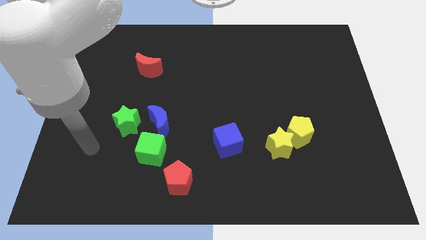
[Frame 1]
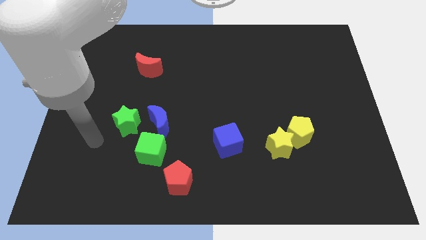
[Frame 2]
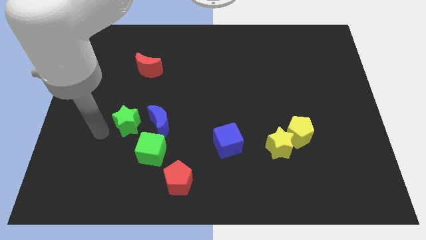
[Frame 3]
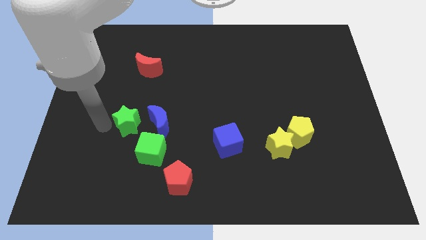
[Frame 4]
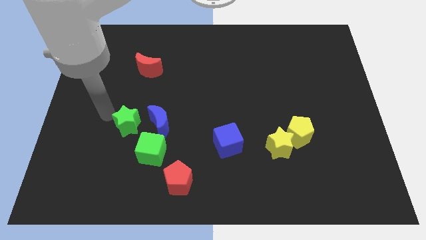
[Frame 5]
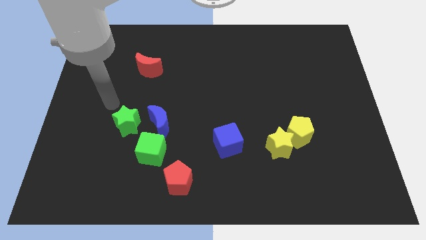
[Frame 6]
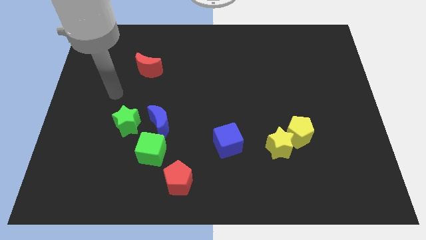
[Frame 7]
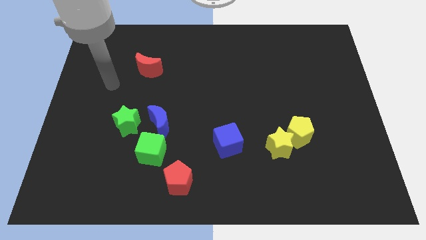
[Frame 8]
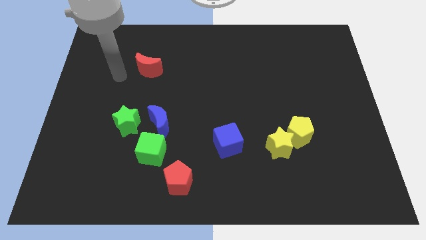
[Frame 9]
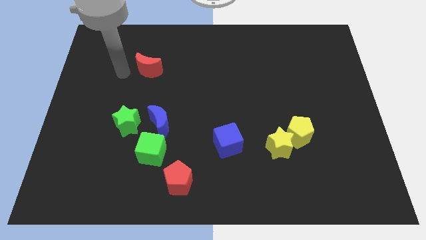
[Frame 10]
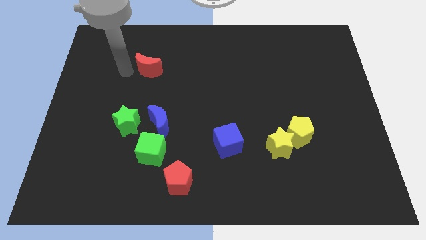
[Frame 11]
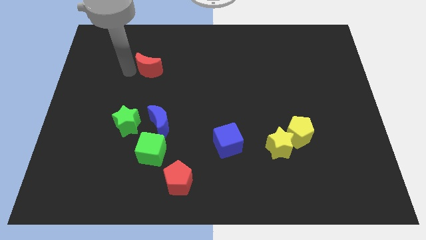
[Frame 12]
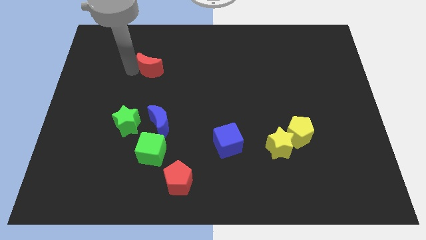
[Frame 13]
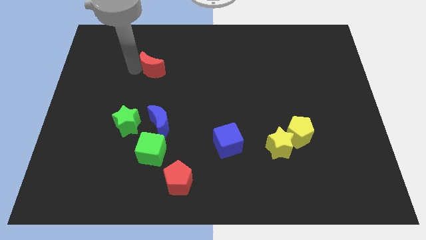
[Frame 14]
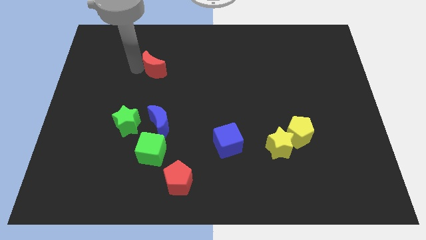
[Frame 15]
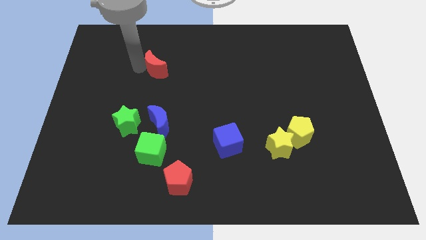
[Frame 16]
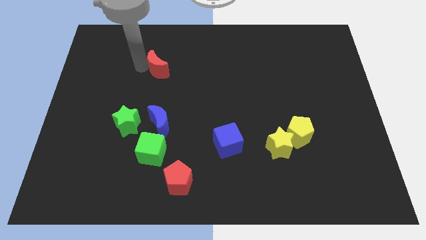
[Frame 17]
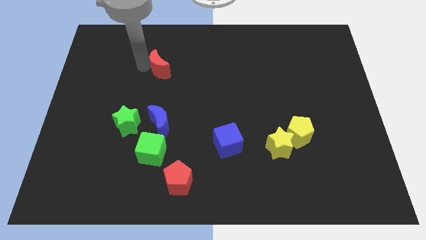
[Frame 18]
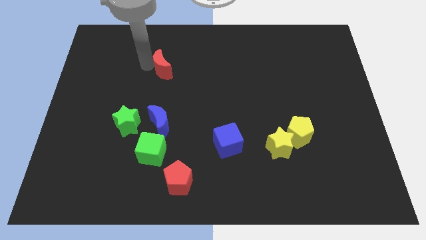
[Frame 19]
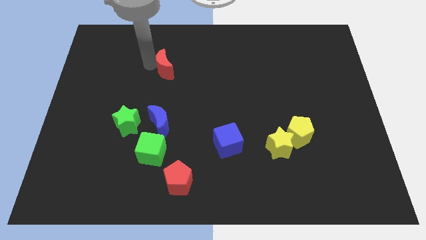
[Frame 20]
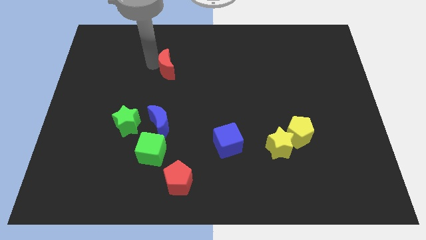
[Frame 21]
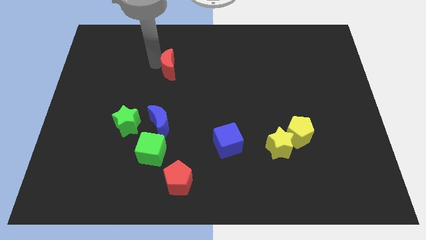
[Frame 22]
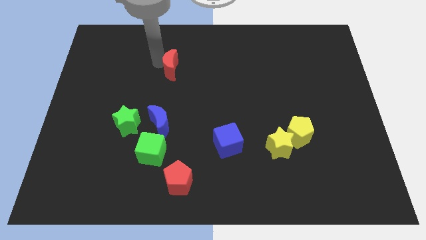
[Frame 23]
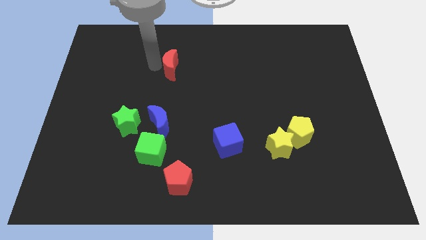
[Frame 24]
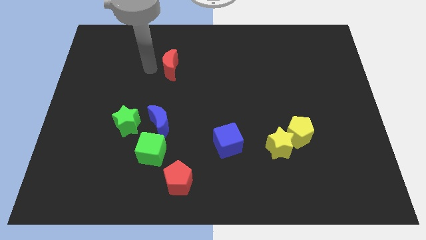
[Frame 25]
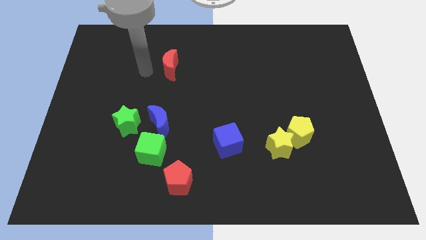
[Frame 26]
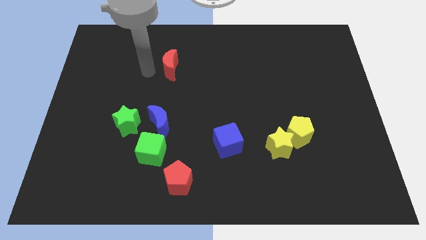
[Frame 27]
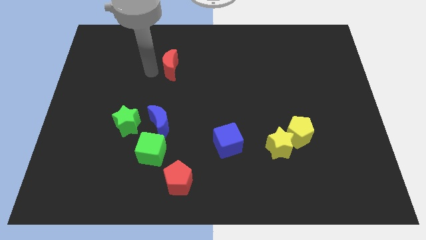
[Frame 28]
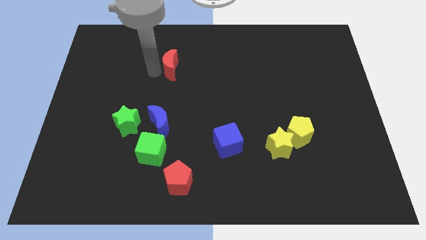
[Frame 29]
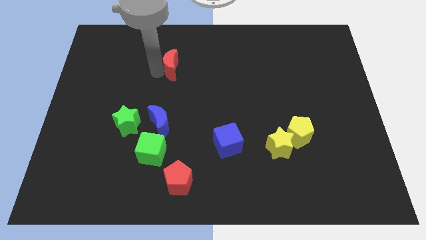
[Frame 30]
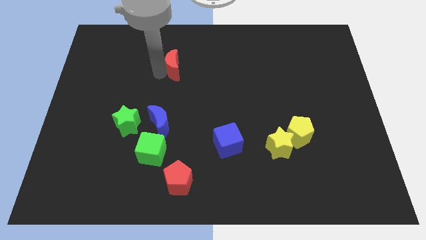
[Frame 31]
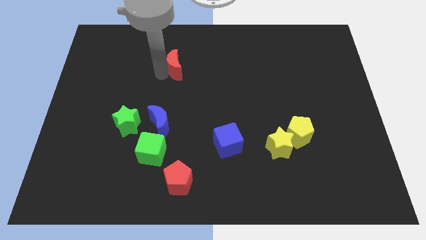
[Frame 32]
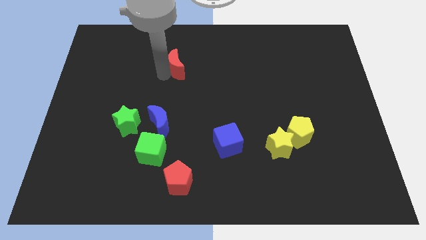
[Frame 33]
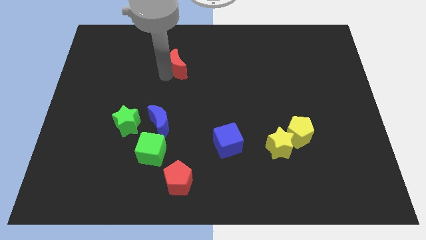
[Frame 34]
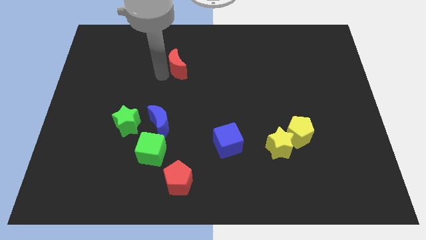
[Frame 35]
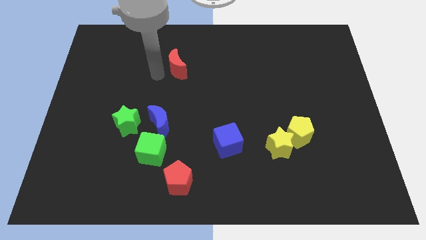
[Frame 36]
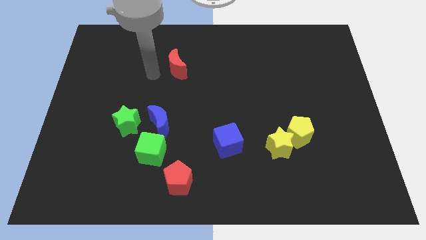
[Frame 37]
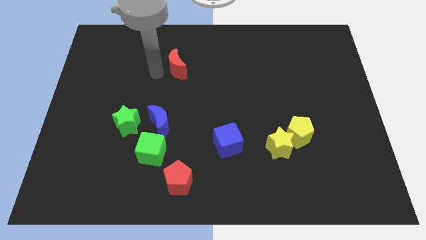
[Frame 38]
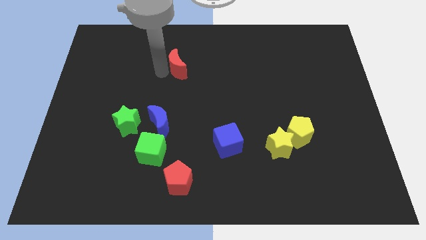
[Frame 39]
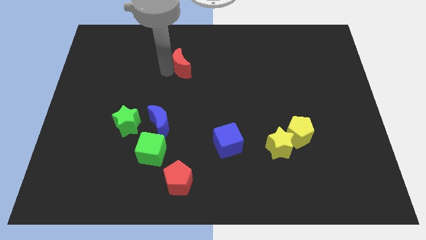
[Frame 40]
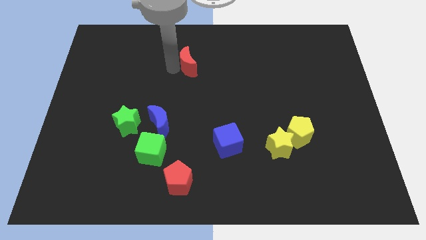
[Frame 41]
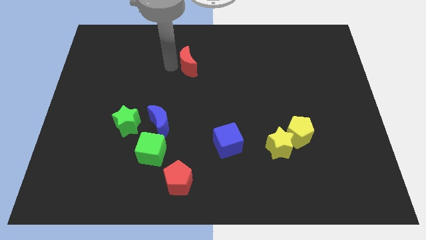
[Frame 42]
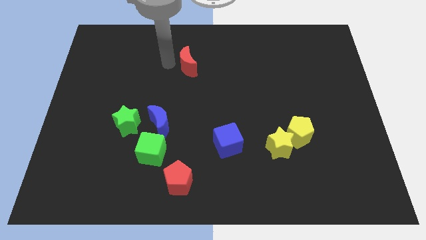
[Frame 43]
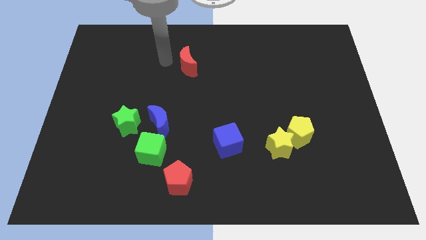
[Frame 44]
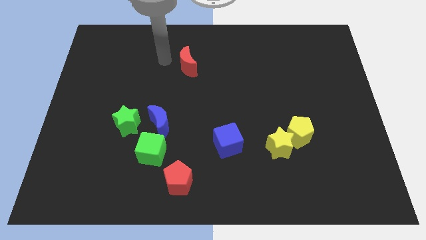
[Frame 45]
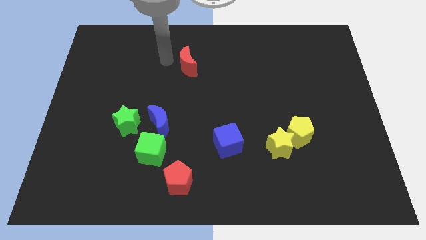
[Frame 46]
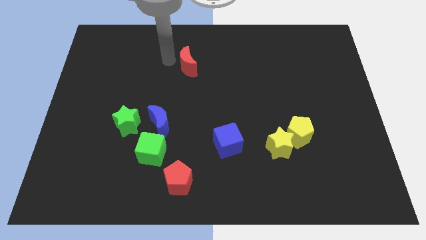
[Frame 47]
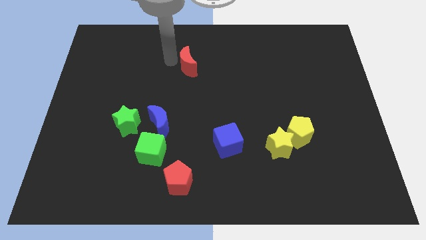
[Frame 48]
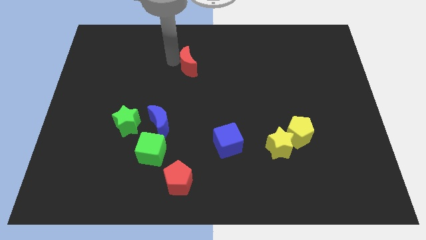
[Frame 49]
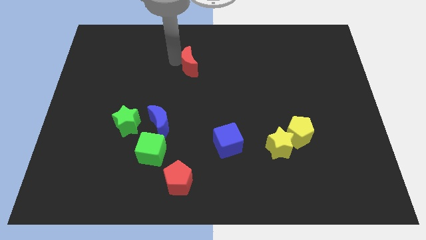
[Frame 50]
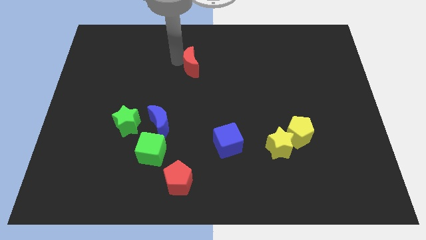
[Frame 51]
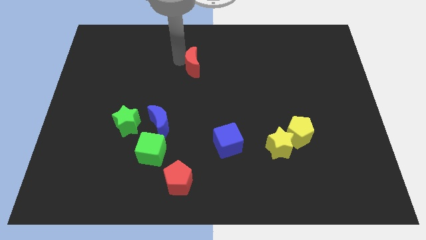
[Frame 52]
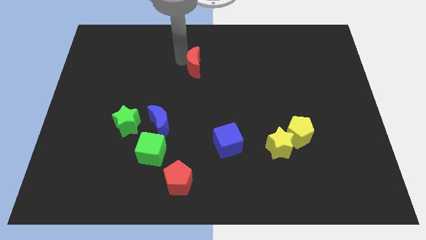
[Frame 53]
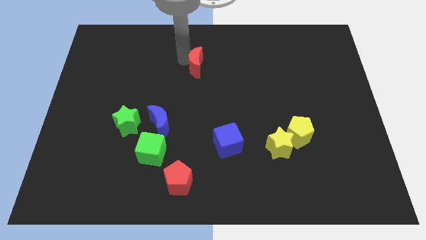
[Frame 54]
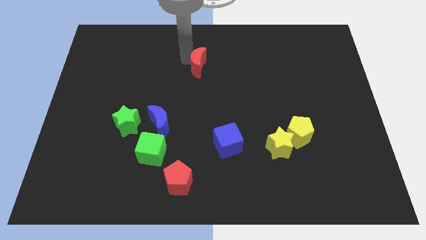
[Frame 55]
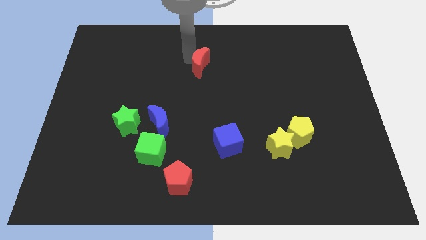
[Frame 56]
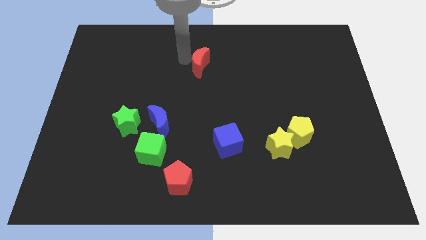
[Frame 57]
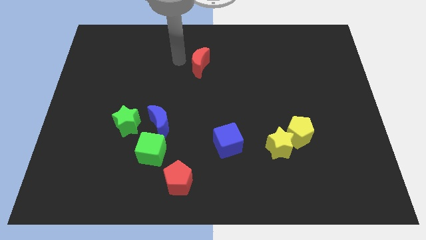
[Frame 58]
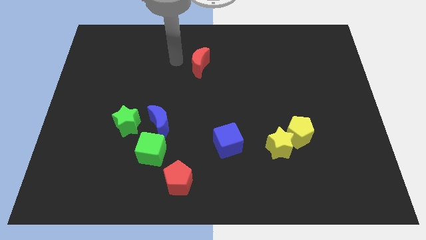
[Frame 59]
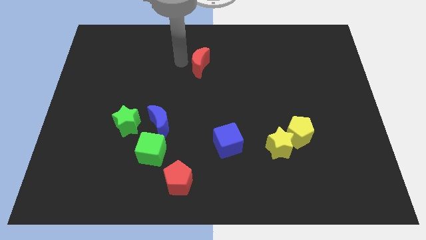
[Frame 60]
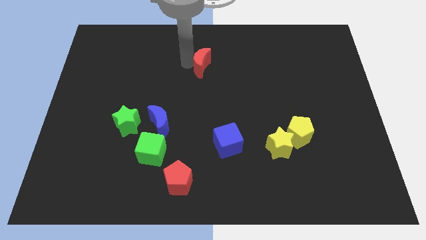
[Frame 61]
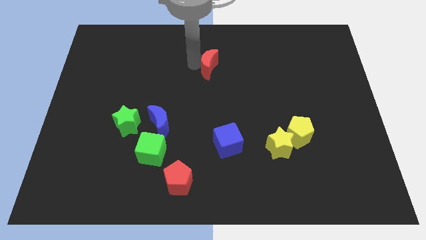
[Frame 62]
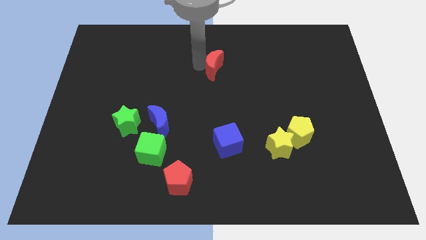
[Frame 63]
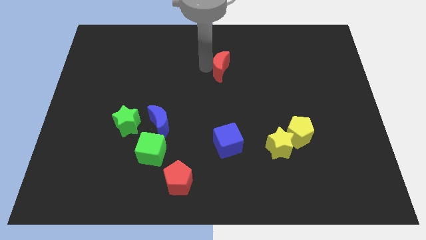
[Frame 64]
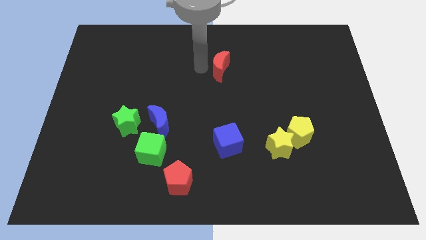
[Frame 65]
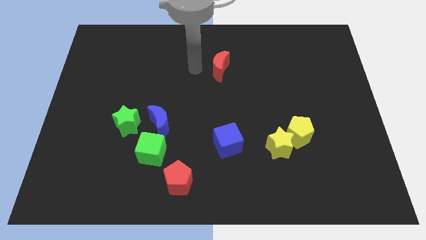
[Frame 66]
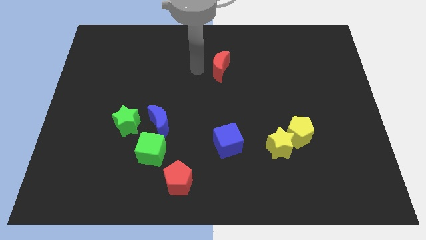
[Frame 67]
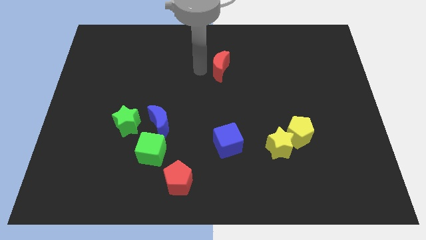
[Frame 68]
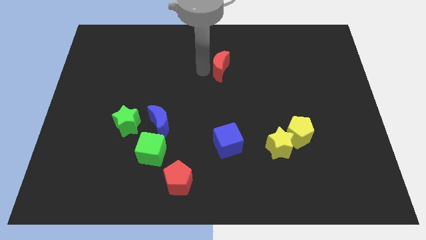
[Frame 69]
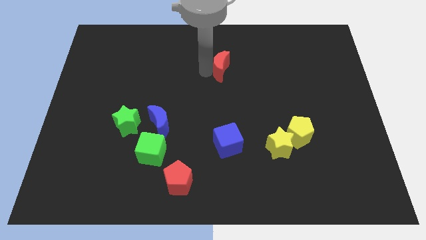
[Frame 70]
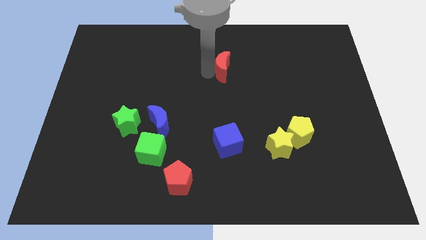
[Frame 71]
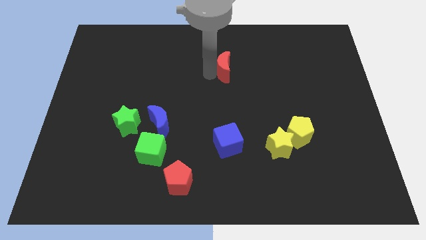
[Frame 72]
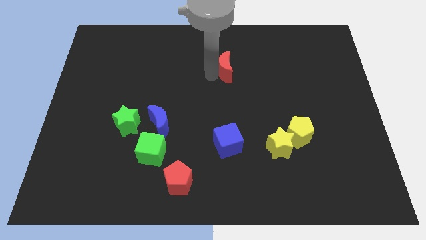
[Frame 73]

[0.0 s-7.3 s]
push the red moon to the right

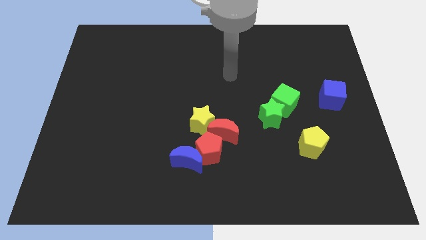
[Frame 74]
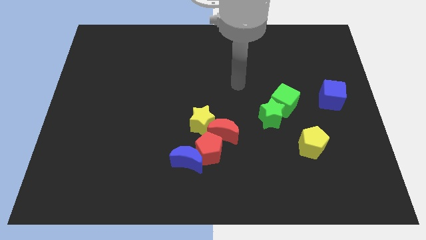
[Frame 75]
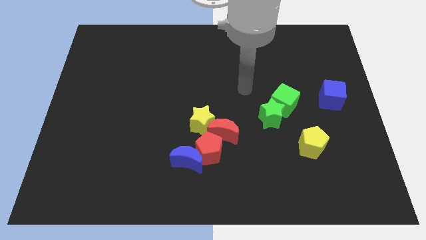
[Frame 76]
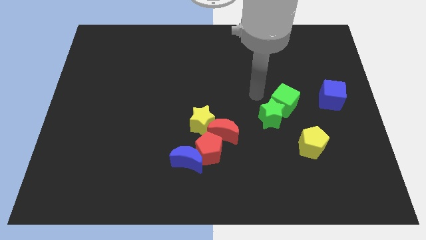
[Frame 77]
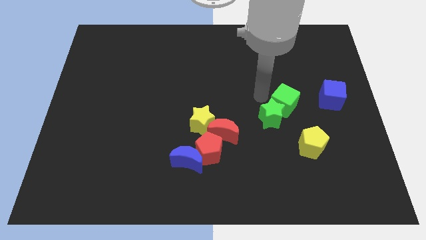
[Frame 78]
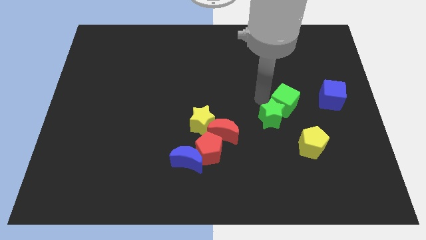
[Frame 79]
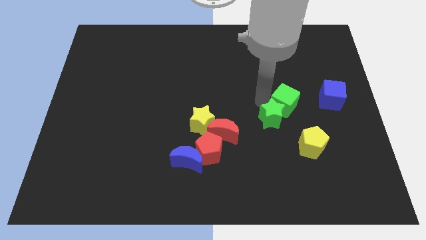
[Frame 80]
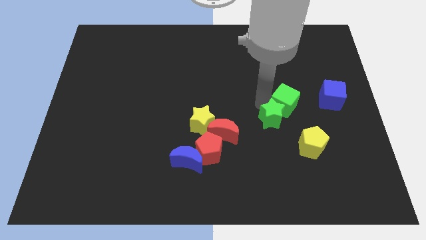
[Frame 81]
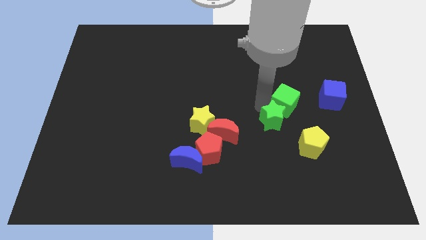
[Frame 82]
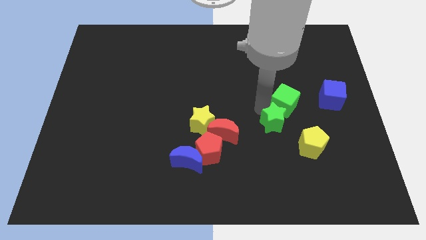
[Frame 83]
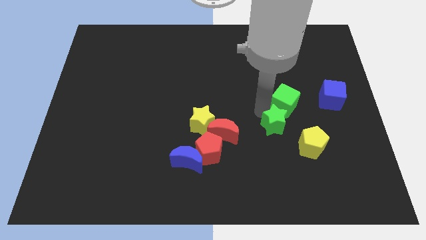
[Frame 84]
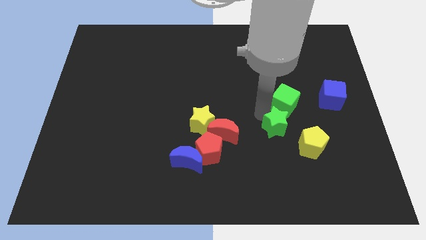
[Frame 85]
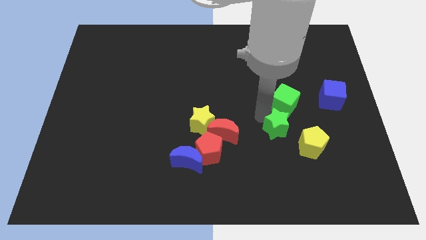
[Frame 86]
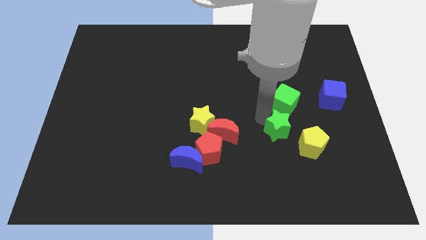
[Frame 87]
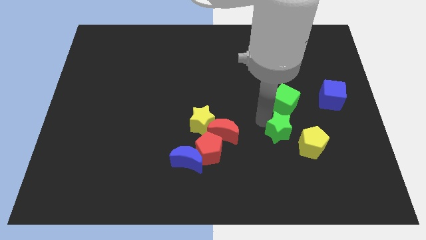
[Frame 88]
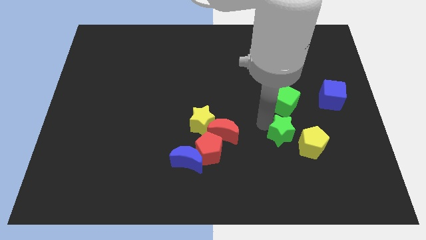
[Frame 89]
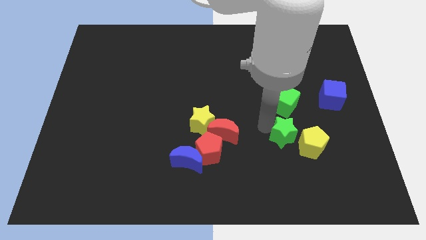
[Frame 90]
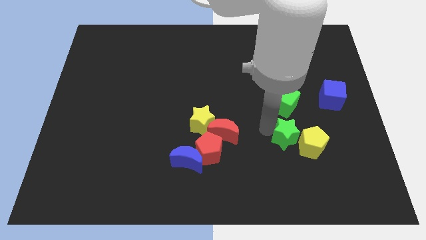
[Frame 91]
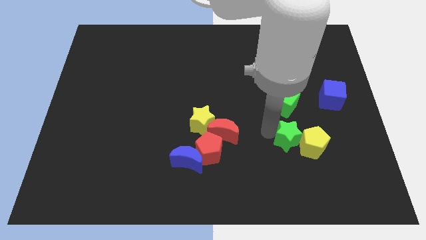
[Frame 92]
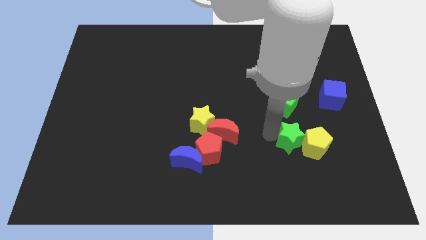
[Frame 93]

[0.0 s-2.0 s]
slide the green star slightly downwards and right diagonally
